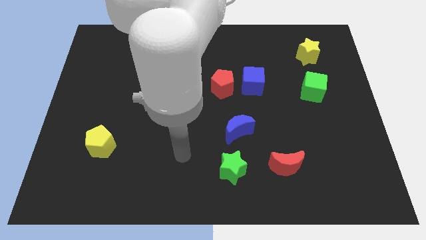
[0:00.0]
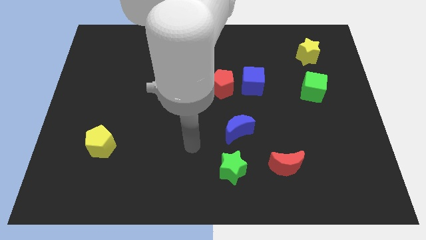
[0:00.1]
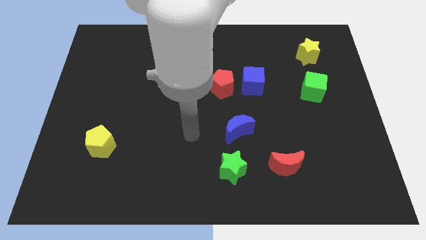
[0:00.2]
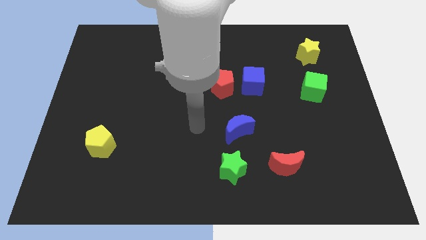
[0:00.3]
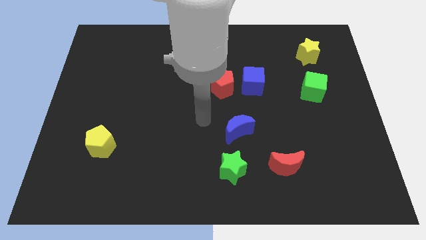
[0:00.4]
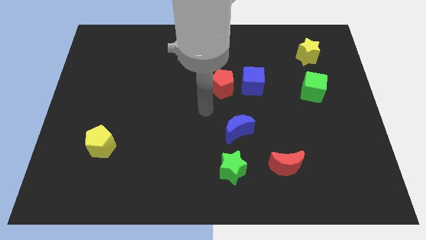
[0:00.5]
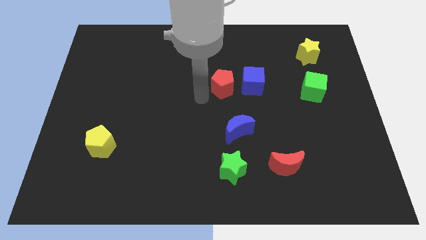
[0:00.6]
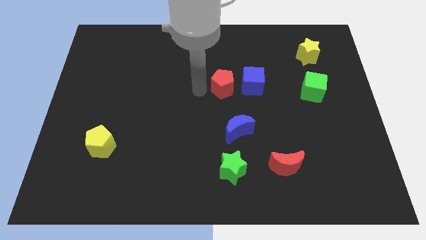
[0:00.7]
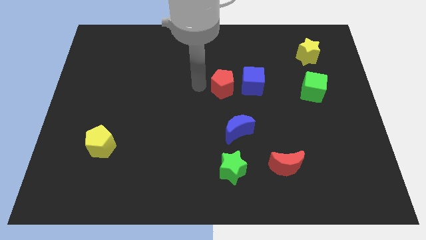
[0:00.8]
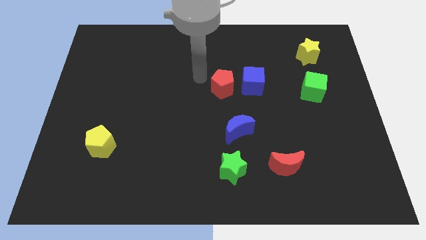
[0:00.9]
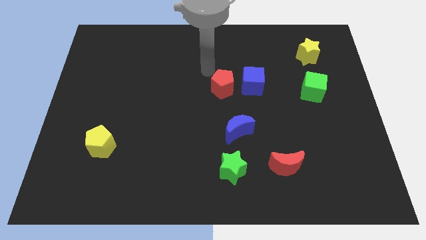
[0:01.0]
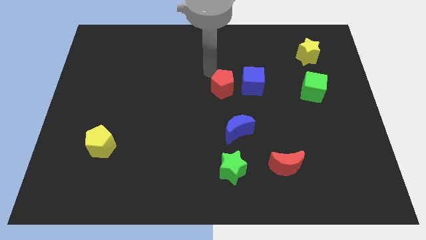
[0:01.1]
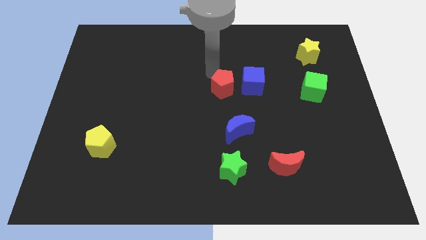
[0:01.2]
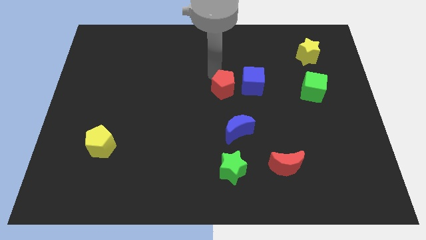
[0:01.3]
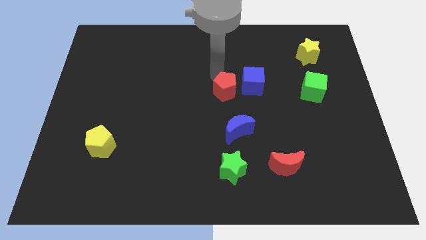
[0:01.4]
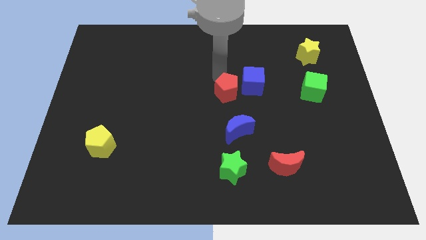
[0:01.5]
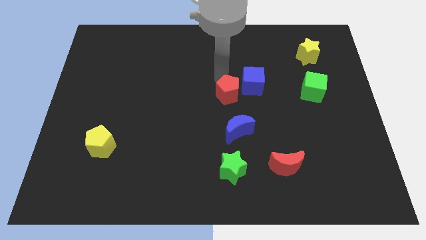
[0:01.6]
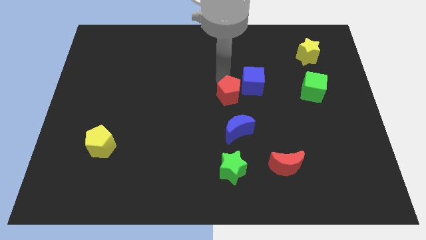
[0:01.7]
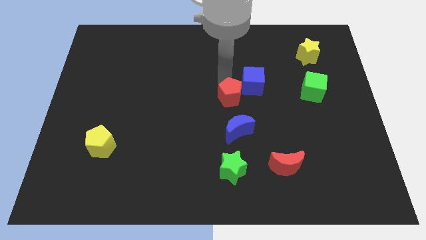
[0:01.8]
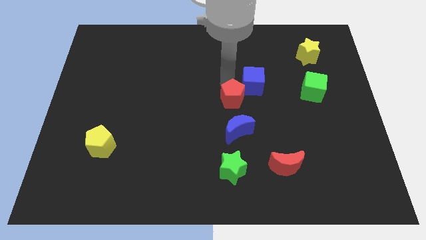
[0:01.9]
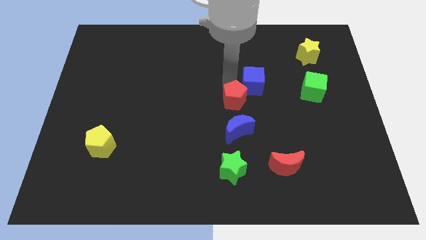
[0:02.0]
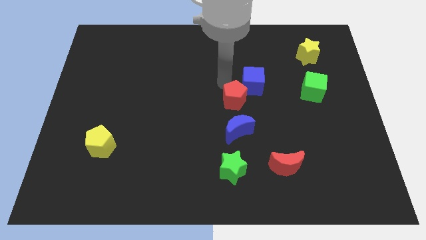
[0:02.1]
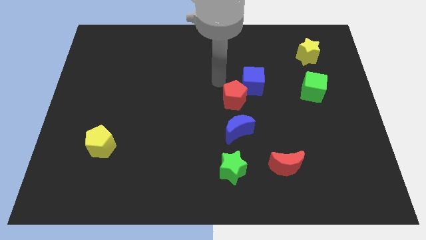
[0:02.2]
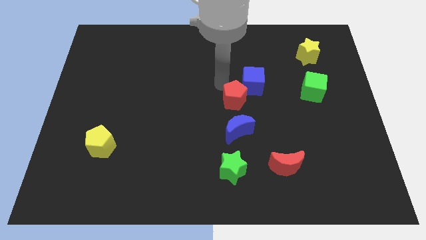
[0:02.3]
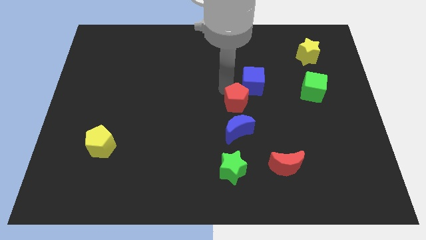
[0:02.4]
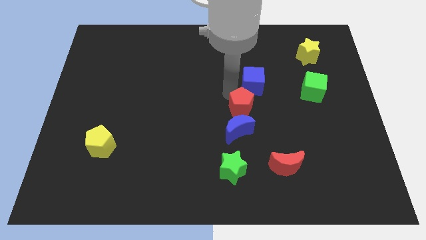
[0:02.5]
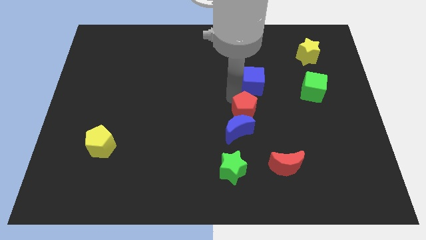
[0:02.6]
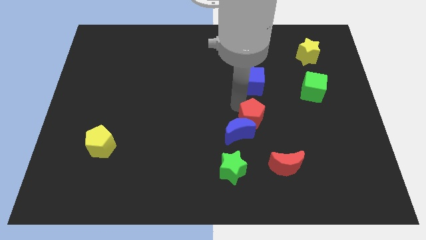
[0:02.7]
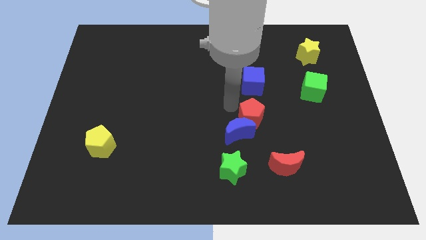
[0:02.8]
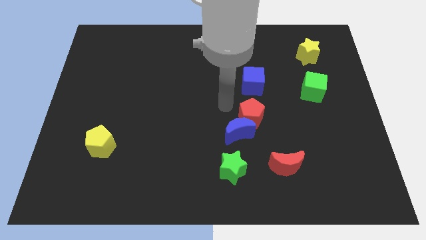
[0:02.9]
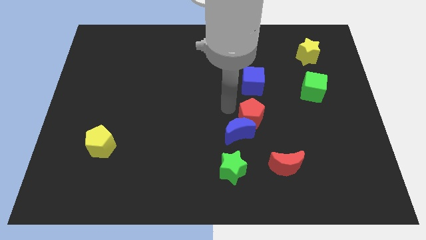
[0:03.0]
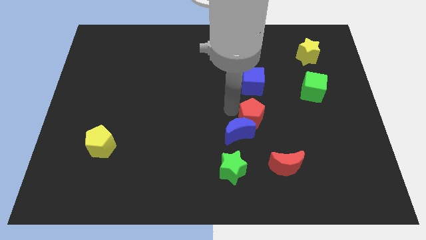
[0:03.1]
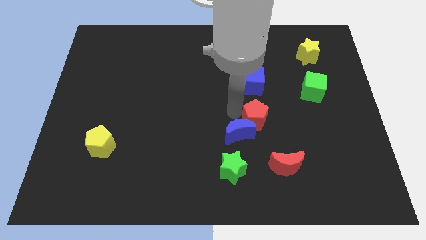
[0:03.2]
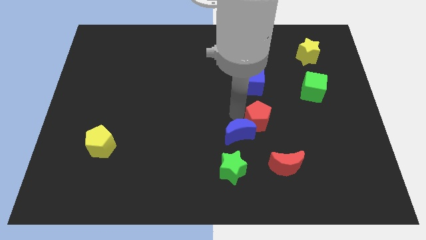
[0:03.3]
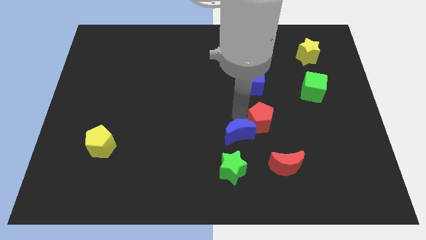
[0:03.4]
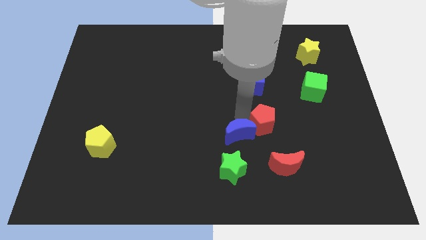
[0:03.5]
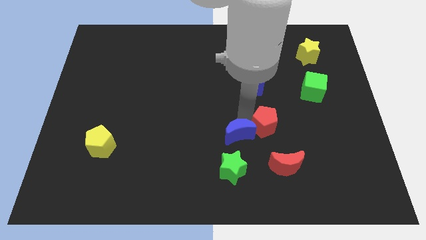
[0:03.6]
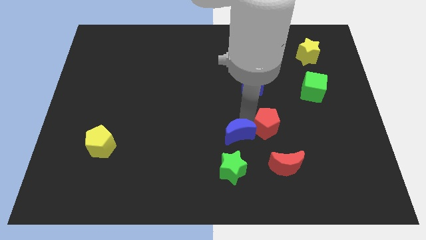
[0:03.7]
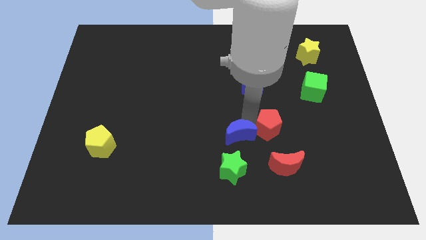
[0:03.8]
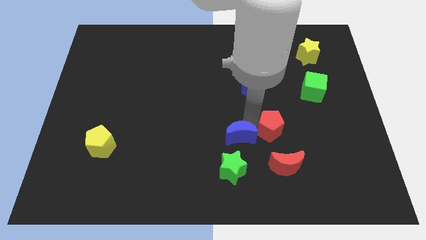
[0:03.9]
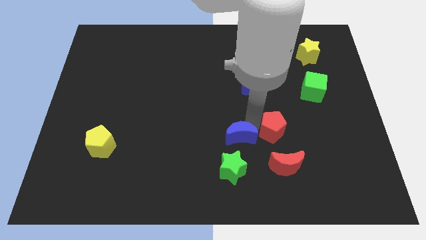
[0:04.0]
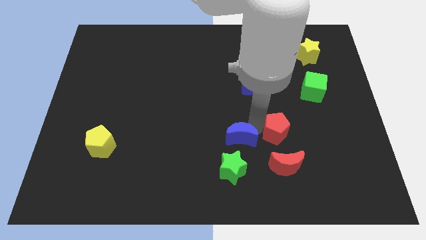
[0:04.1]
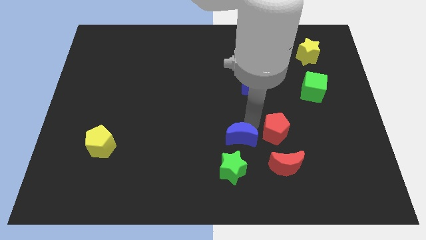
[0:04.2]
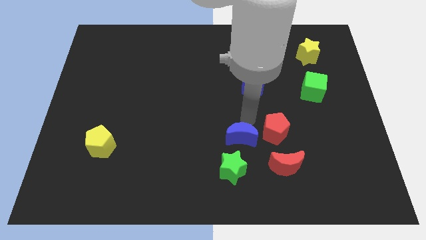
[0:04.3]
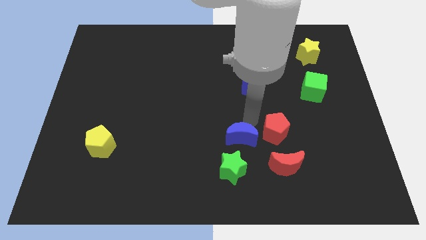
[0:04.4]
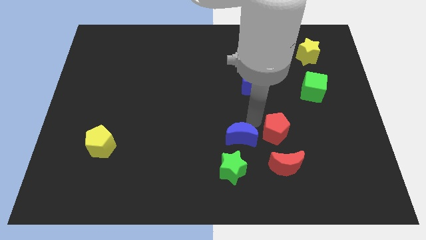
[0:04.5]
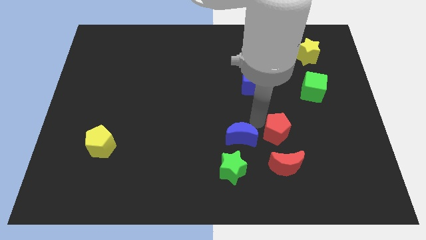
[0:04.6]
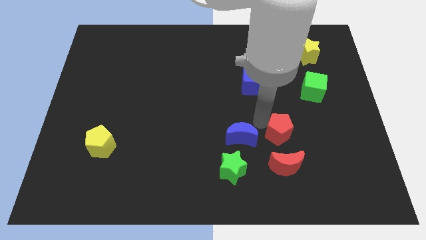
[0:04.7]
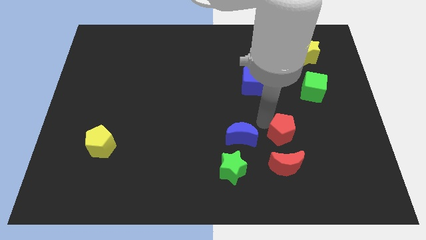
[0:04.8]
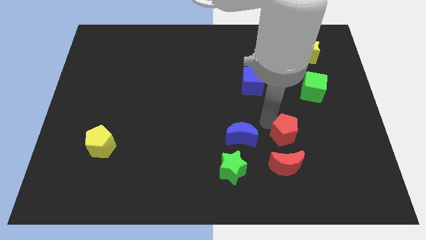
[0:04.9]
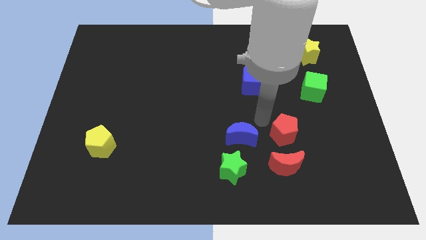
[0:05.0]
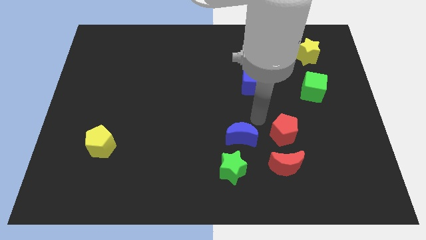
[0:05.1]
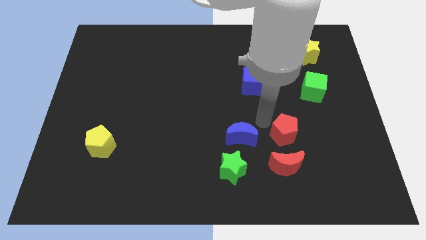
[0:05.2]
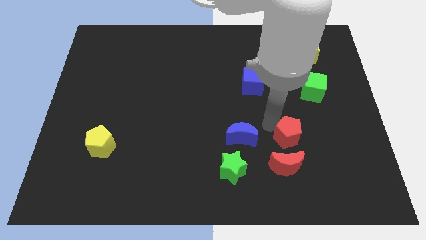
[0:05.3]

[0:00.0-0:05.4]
slide the red pentagon to the top right of the red moon

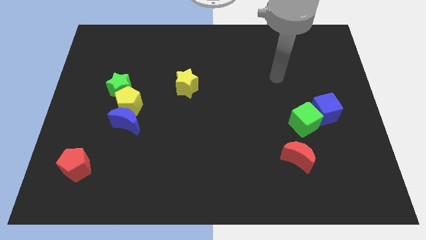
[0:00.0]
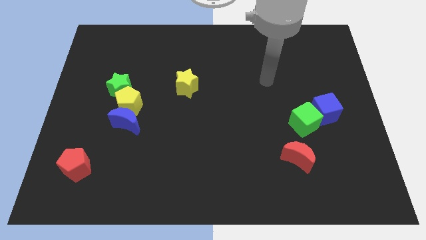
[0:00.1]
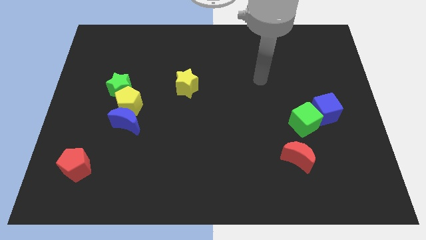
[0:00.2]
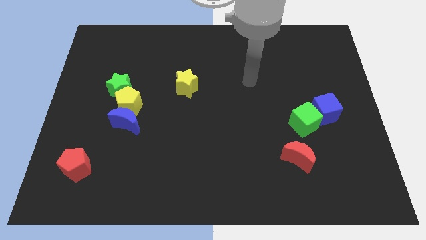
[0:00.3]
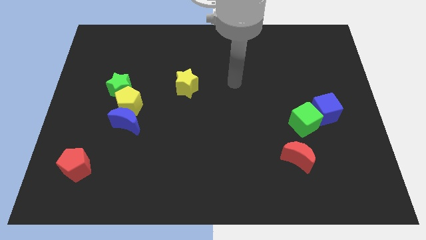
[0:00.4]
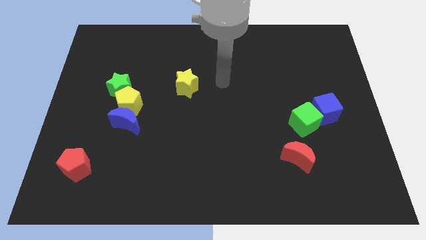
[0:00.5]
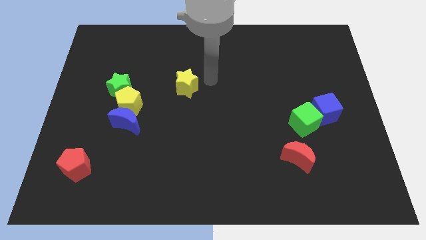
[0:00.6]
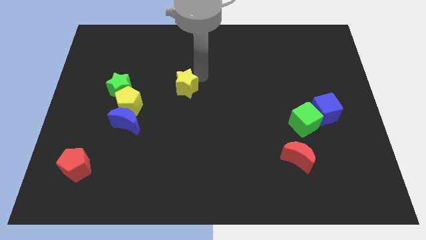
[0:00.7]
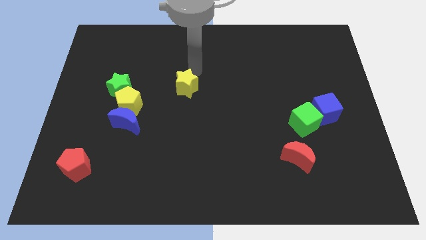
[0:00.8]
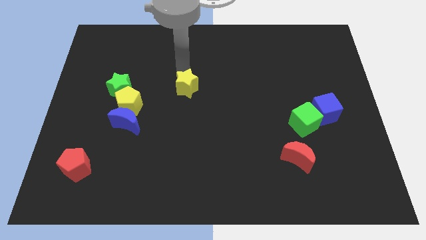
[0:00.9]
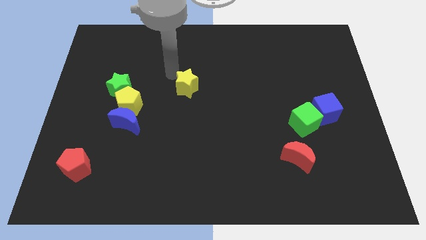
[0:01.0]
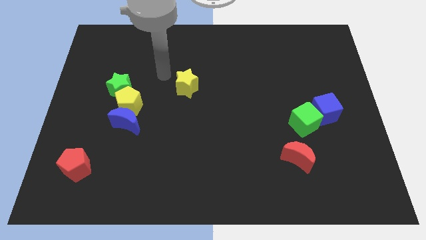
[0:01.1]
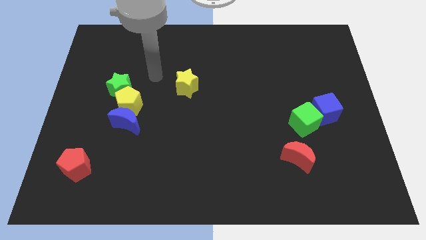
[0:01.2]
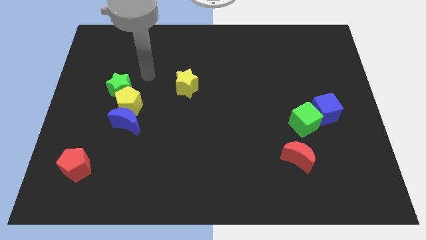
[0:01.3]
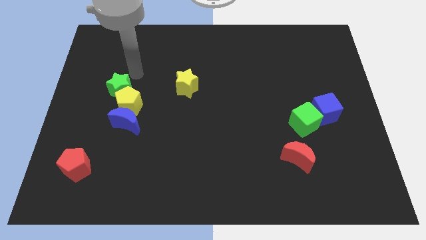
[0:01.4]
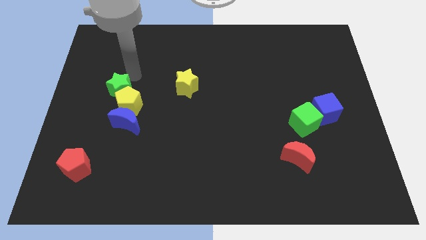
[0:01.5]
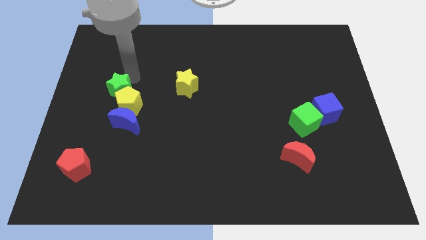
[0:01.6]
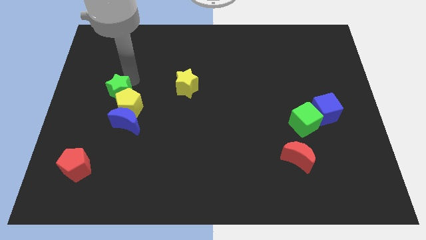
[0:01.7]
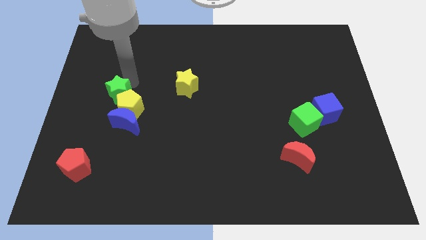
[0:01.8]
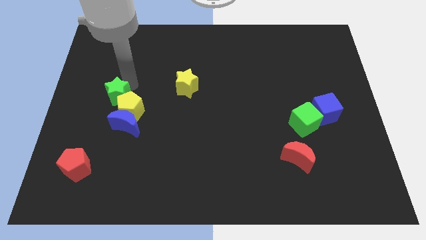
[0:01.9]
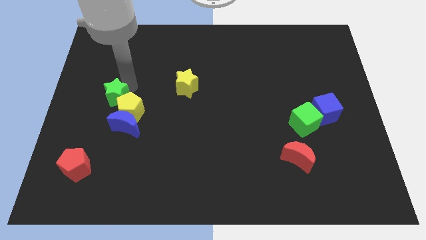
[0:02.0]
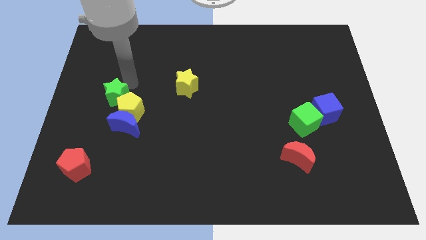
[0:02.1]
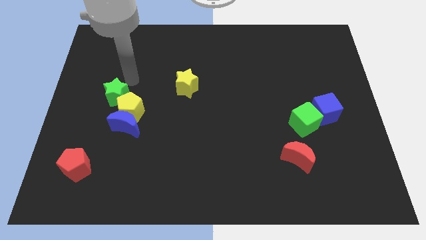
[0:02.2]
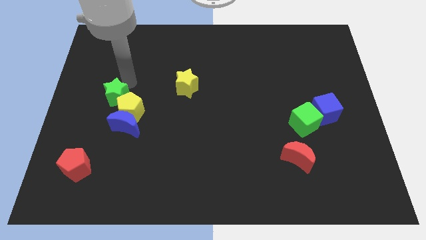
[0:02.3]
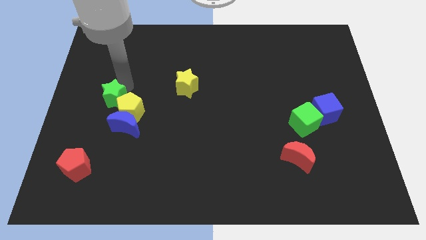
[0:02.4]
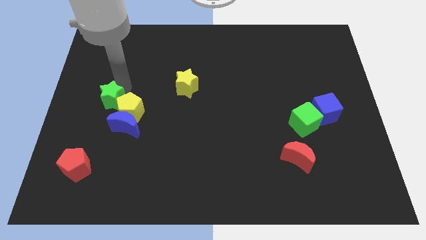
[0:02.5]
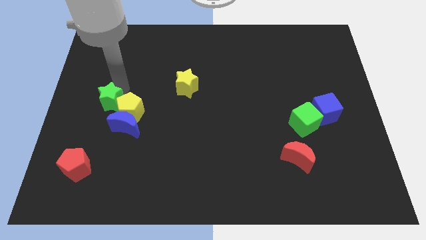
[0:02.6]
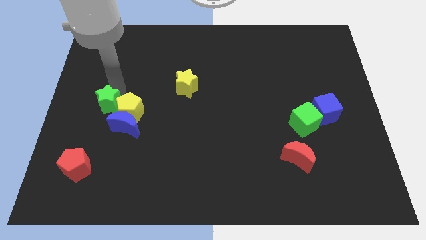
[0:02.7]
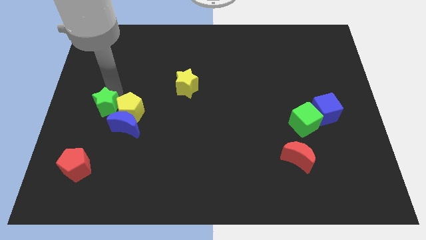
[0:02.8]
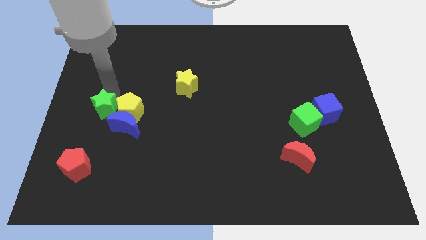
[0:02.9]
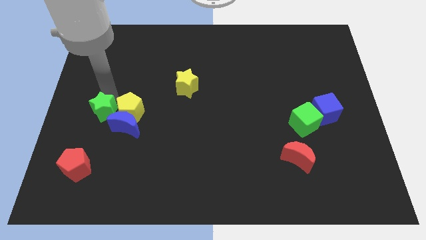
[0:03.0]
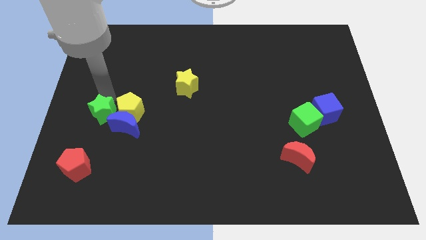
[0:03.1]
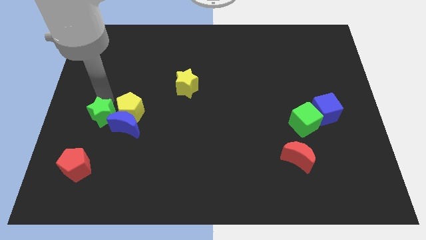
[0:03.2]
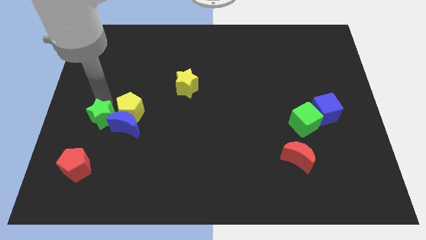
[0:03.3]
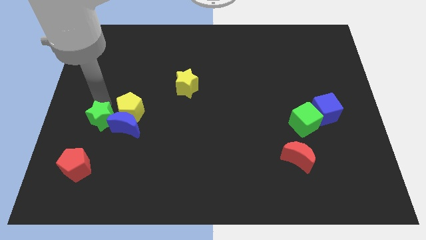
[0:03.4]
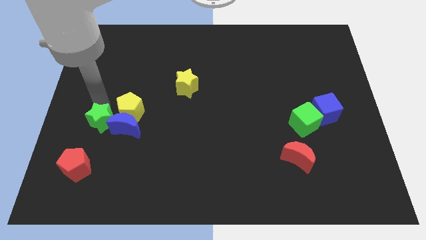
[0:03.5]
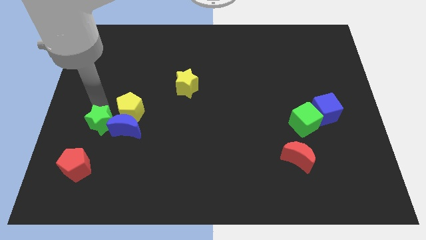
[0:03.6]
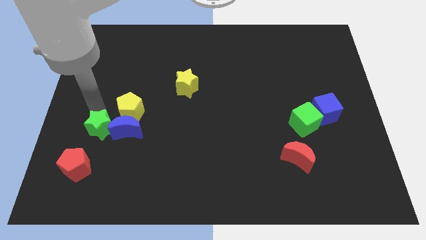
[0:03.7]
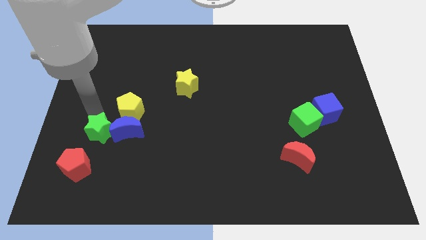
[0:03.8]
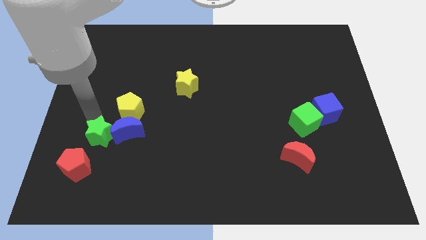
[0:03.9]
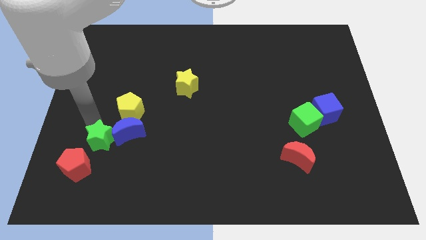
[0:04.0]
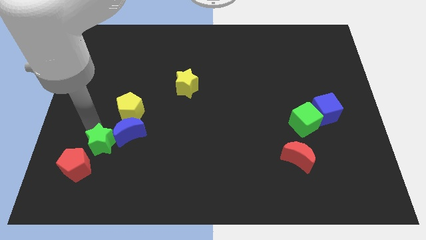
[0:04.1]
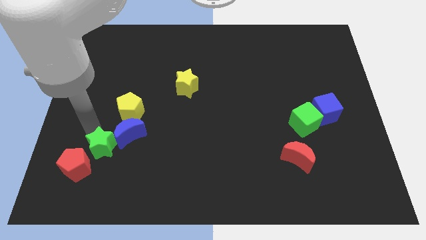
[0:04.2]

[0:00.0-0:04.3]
slide the green star to the right of the red pentagon
